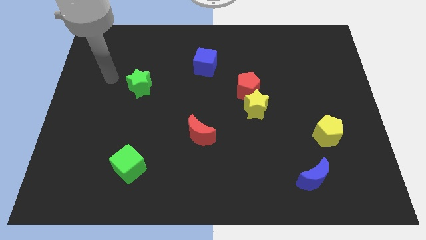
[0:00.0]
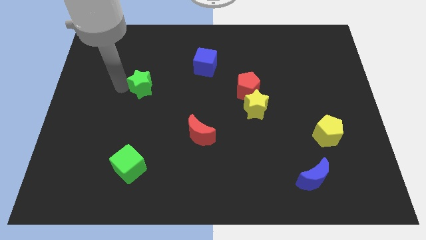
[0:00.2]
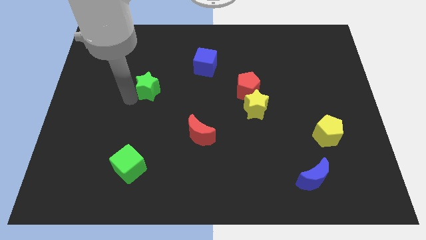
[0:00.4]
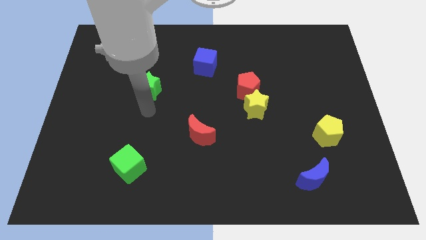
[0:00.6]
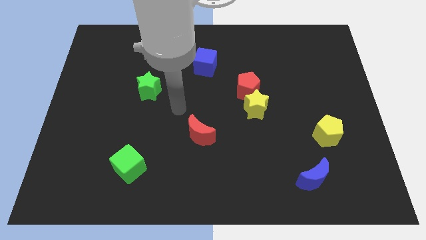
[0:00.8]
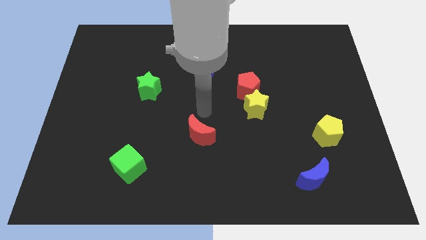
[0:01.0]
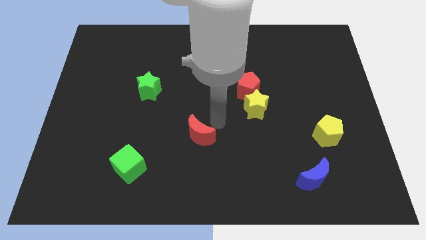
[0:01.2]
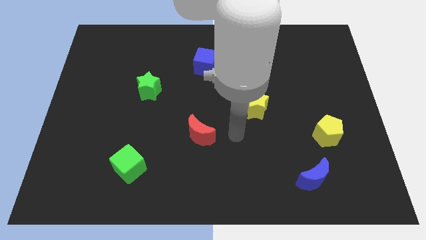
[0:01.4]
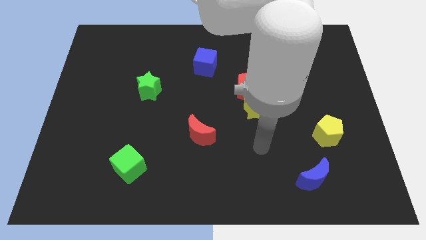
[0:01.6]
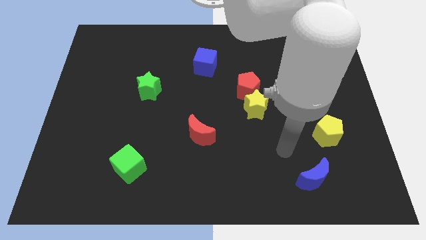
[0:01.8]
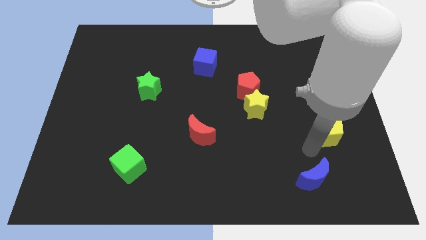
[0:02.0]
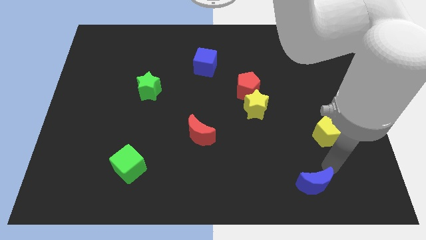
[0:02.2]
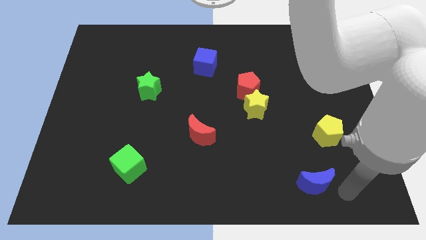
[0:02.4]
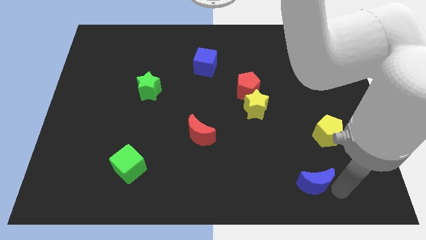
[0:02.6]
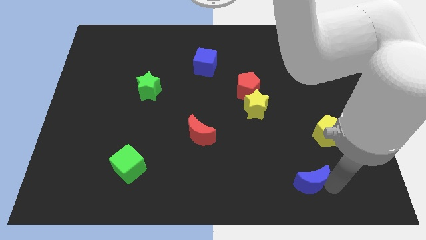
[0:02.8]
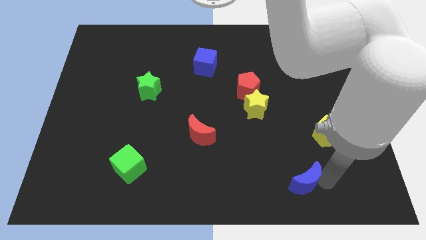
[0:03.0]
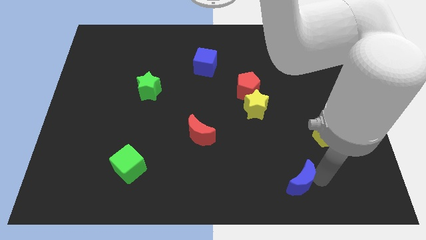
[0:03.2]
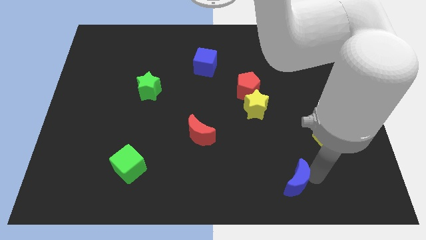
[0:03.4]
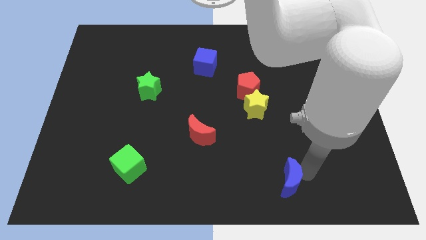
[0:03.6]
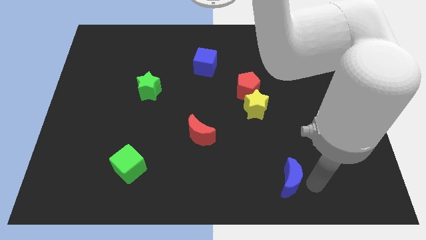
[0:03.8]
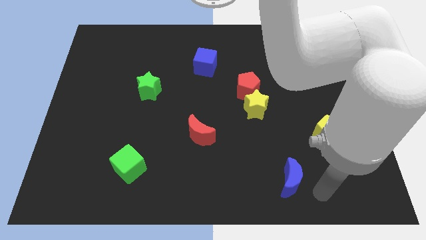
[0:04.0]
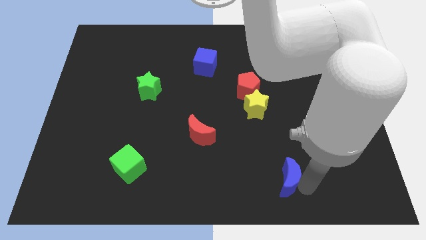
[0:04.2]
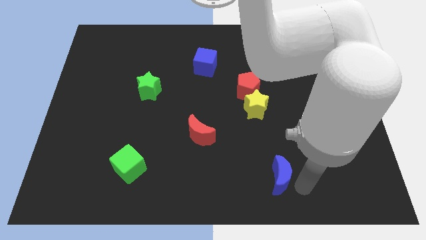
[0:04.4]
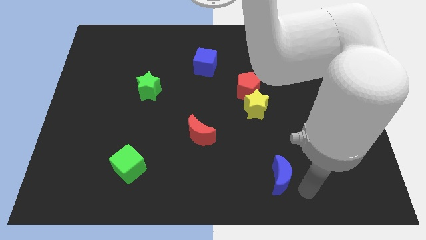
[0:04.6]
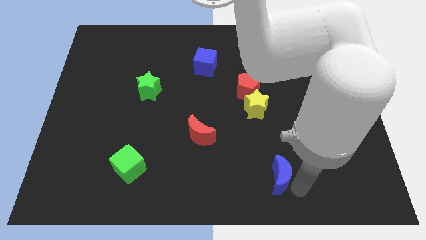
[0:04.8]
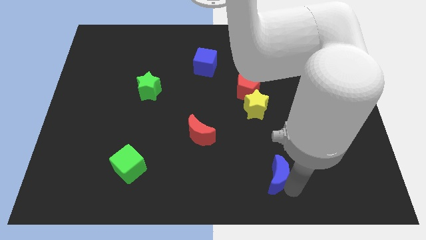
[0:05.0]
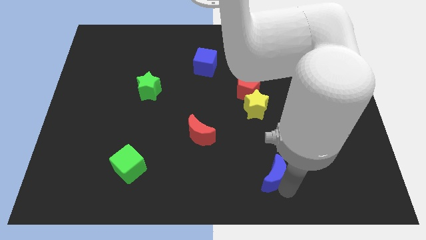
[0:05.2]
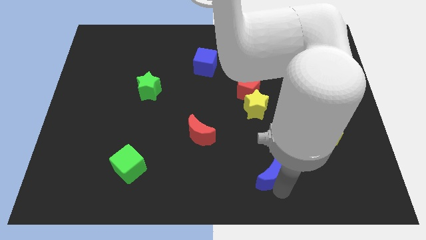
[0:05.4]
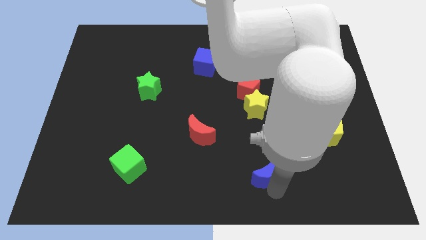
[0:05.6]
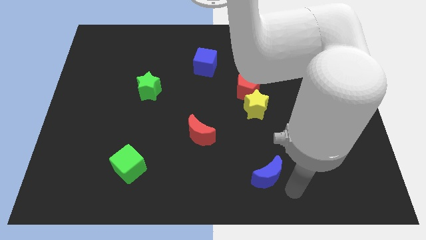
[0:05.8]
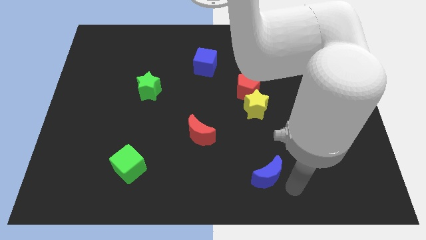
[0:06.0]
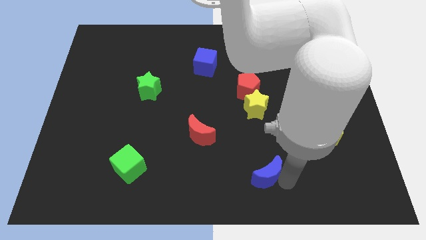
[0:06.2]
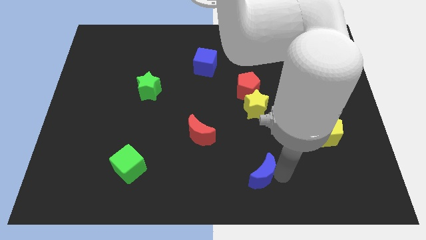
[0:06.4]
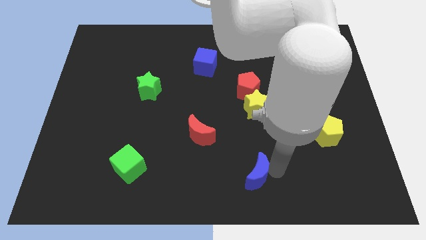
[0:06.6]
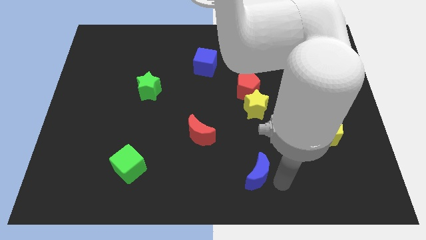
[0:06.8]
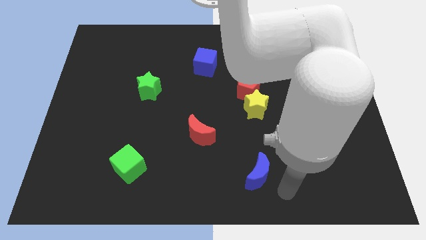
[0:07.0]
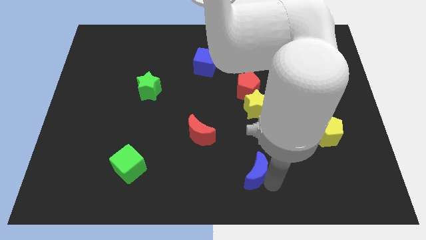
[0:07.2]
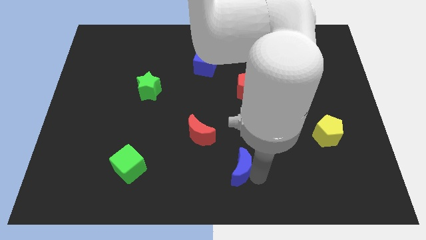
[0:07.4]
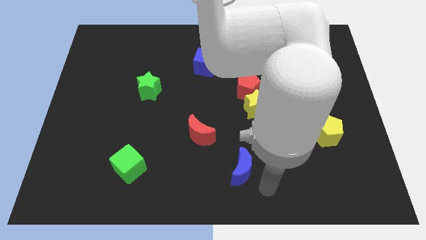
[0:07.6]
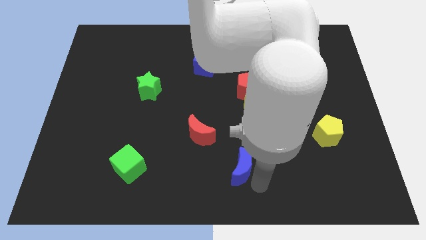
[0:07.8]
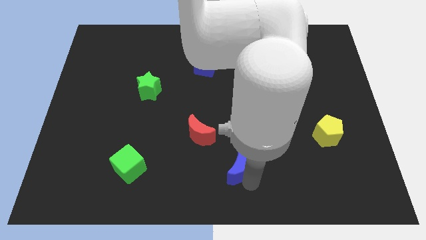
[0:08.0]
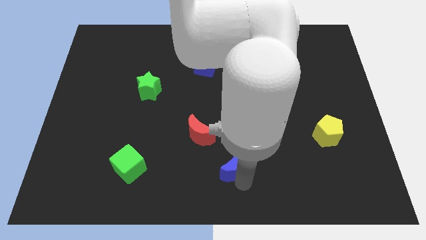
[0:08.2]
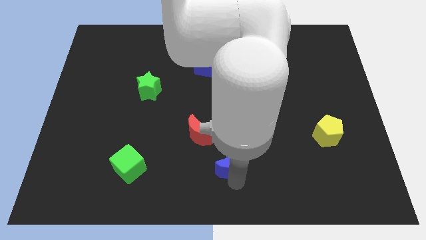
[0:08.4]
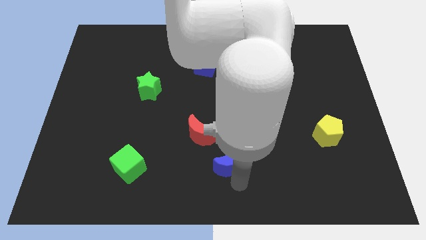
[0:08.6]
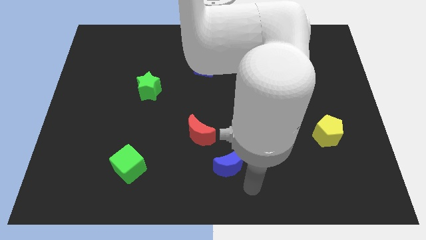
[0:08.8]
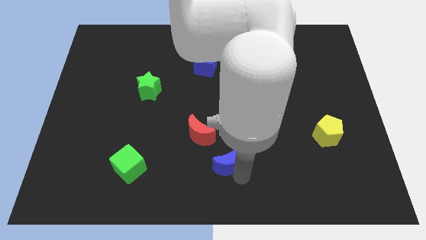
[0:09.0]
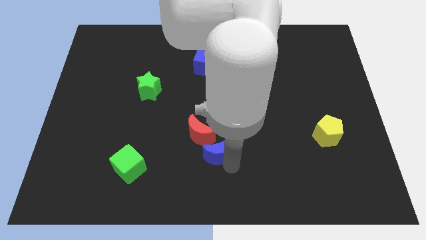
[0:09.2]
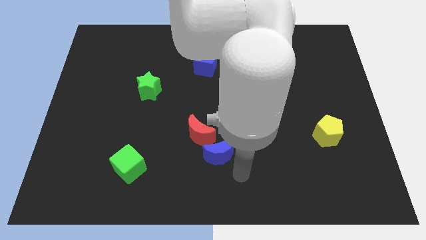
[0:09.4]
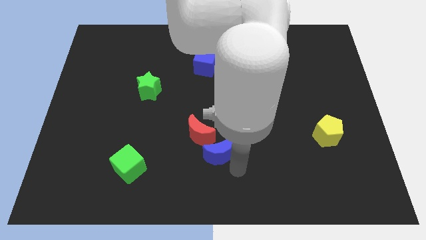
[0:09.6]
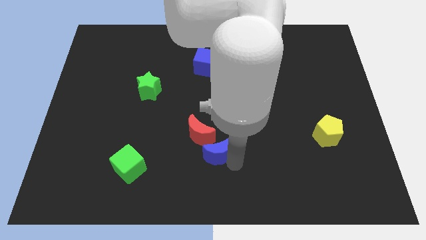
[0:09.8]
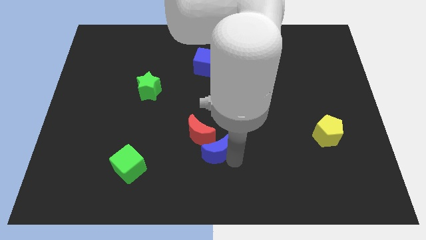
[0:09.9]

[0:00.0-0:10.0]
put the blue moon to the red moon

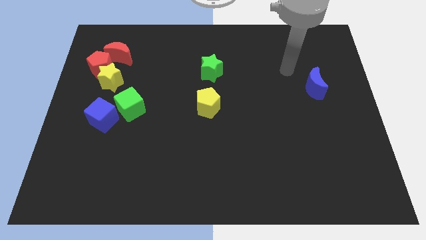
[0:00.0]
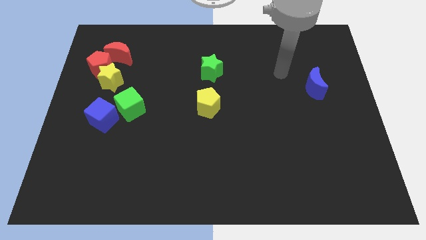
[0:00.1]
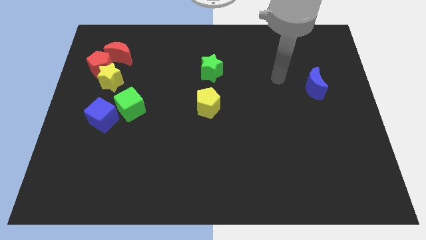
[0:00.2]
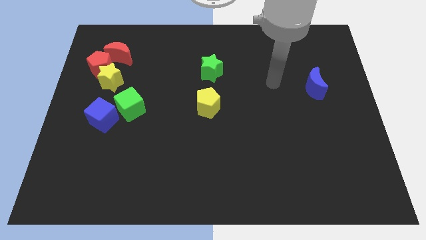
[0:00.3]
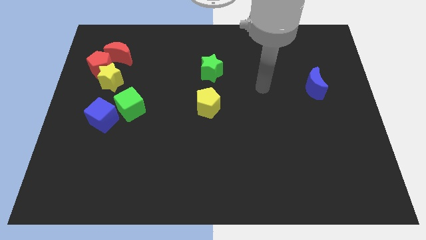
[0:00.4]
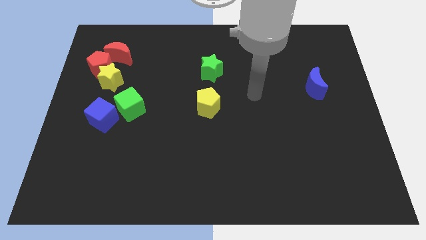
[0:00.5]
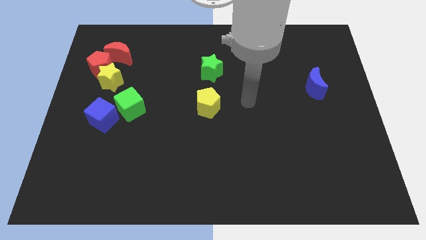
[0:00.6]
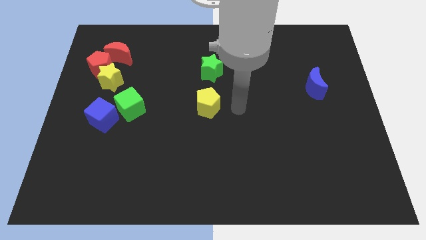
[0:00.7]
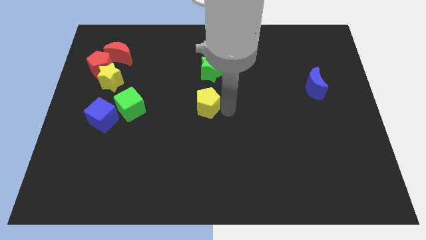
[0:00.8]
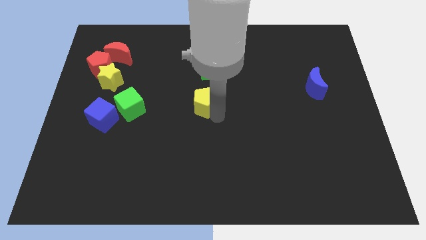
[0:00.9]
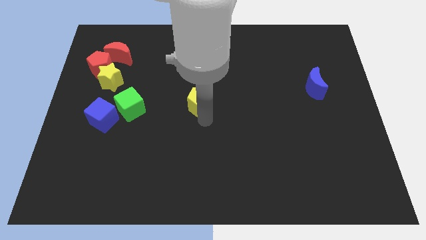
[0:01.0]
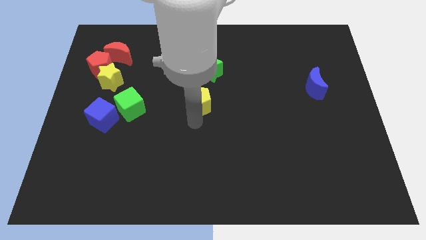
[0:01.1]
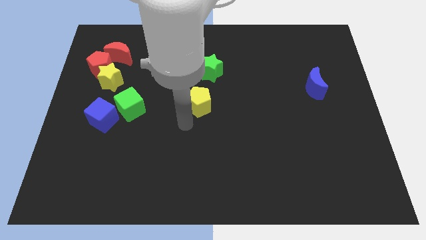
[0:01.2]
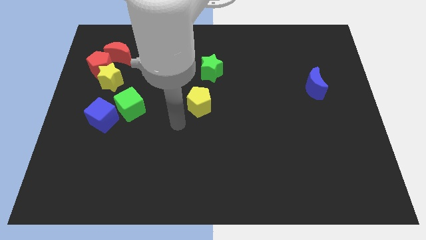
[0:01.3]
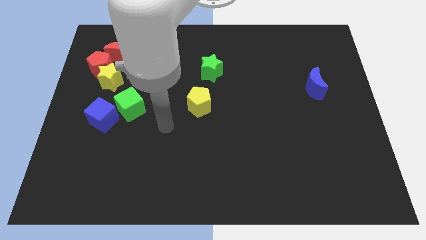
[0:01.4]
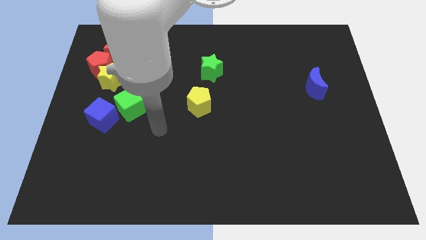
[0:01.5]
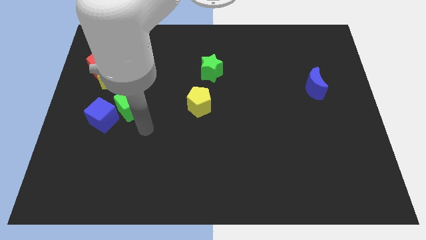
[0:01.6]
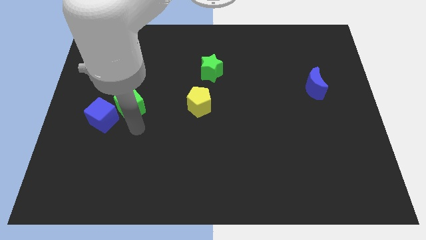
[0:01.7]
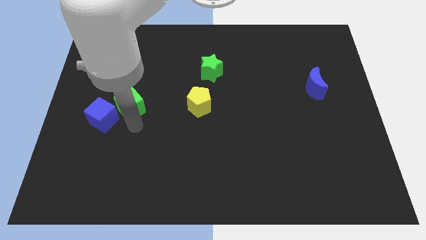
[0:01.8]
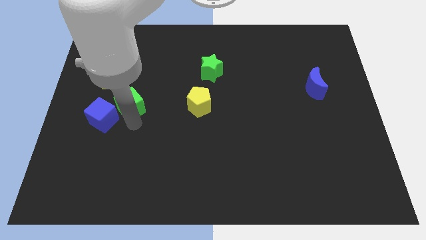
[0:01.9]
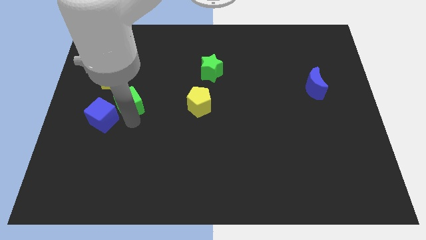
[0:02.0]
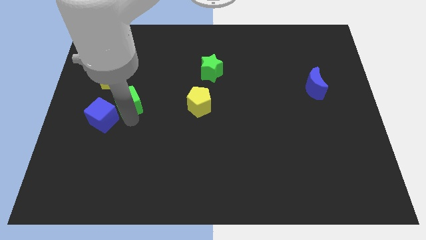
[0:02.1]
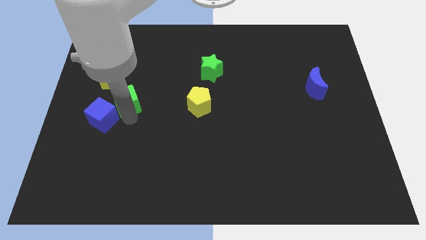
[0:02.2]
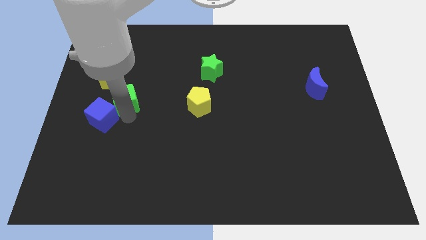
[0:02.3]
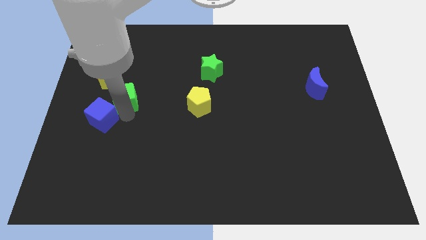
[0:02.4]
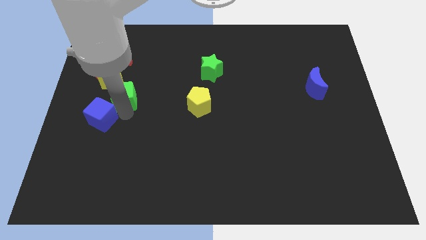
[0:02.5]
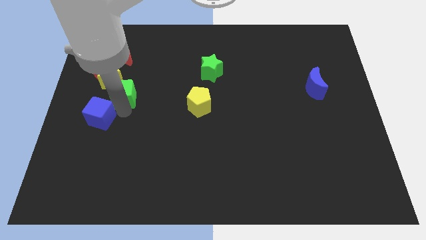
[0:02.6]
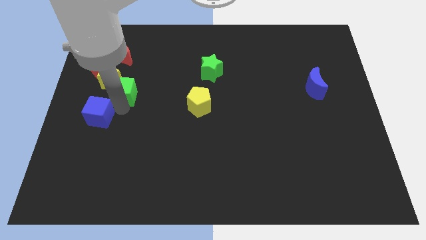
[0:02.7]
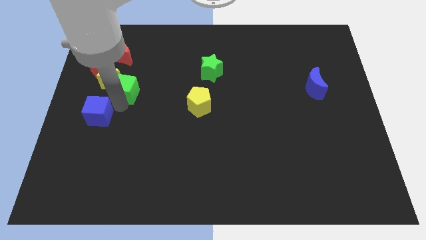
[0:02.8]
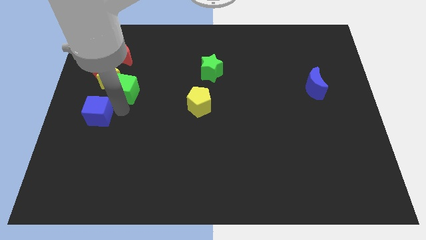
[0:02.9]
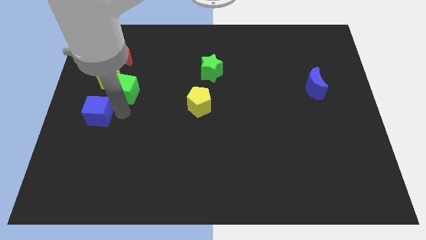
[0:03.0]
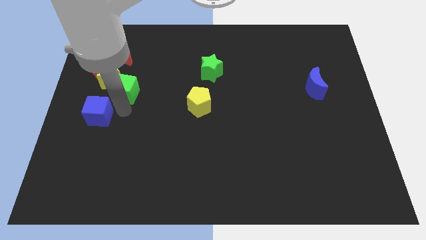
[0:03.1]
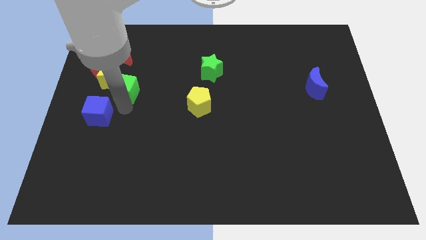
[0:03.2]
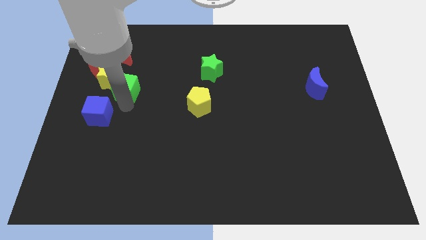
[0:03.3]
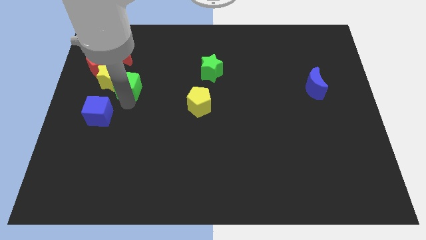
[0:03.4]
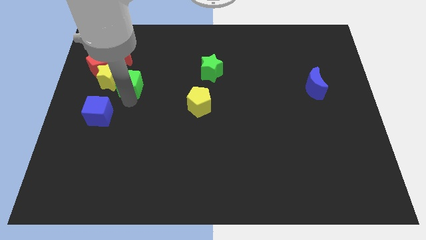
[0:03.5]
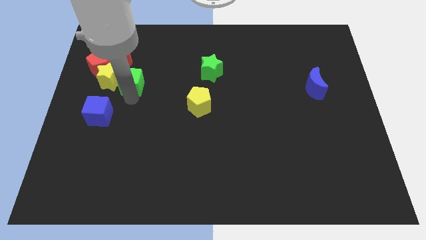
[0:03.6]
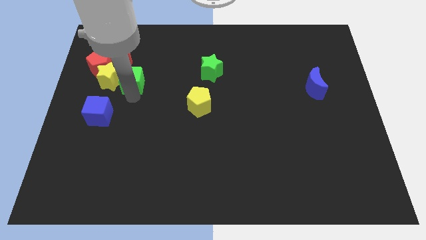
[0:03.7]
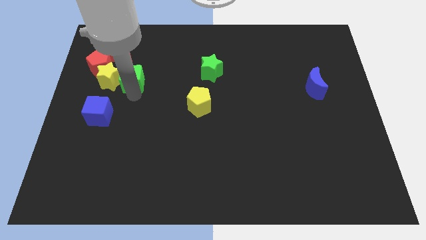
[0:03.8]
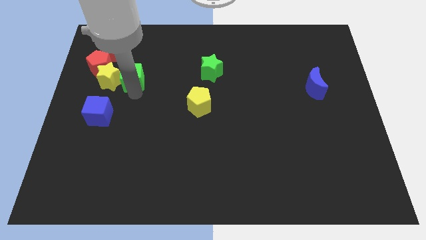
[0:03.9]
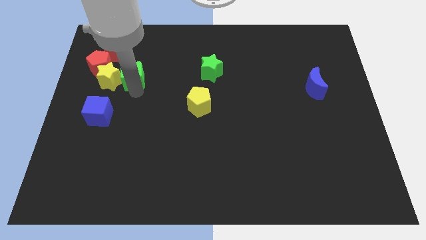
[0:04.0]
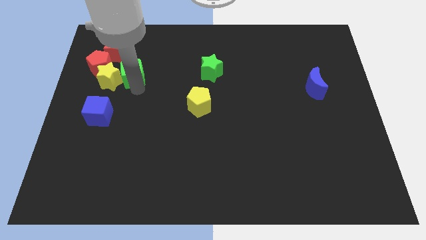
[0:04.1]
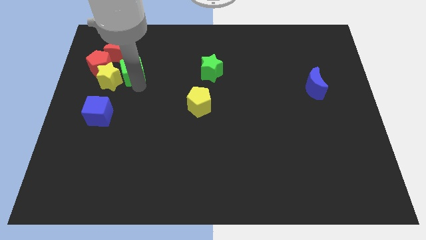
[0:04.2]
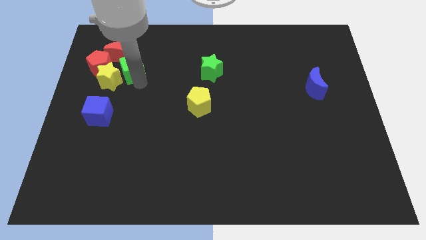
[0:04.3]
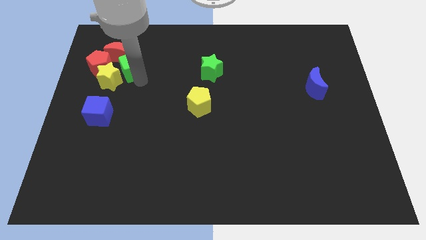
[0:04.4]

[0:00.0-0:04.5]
push the green cube next to the red moon
